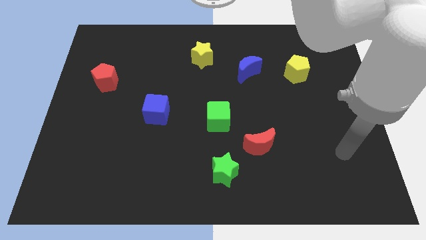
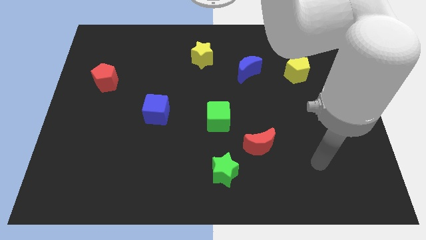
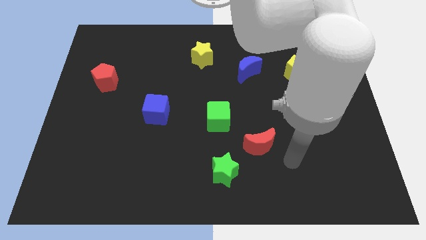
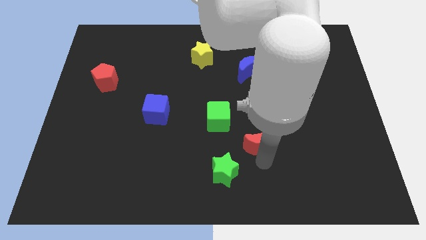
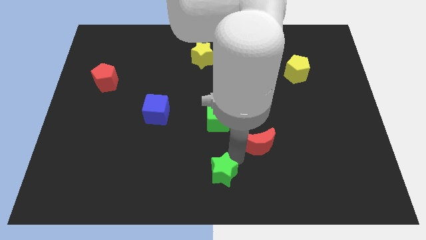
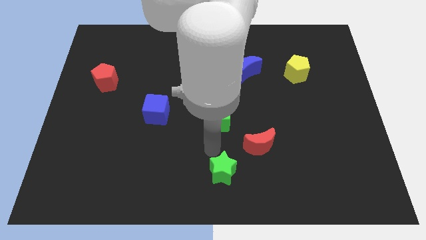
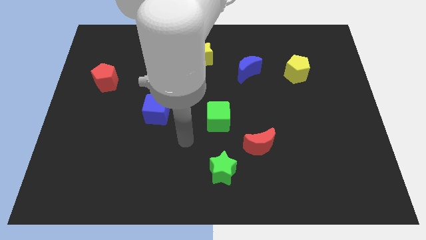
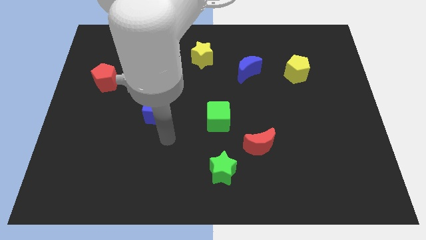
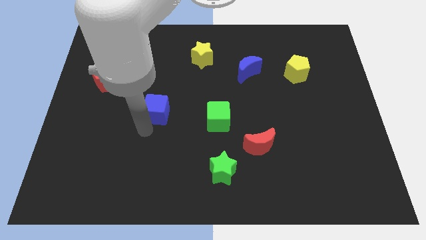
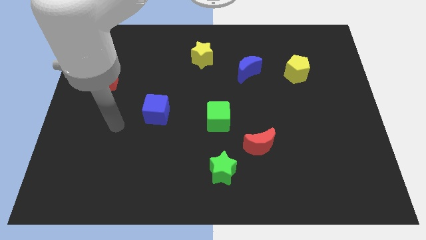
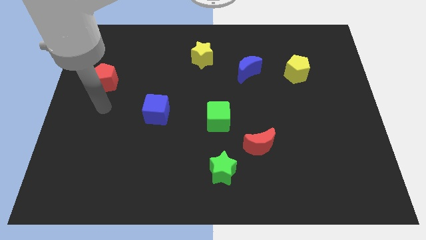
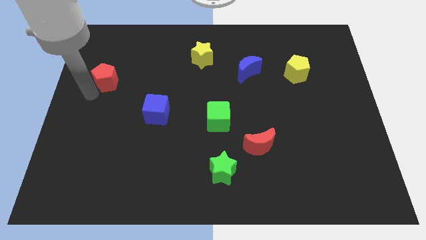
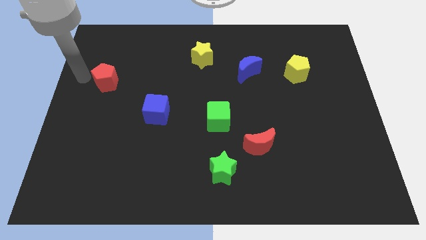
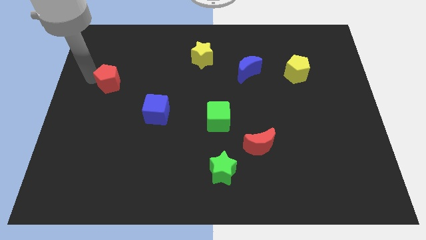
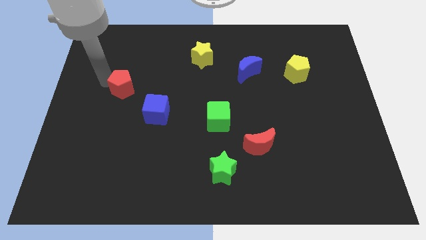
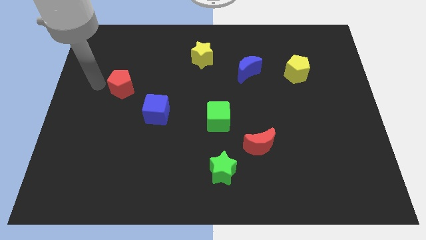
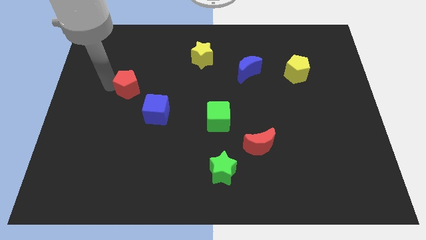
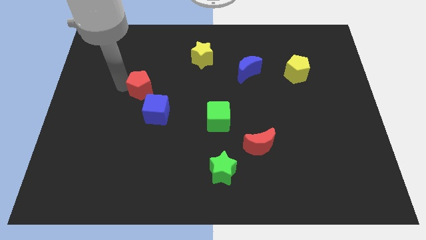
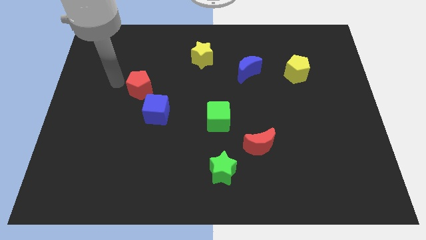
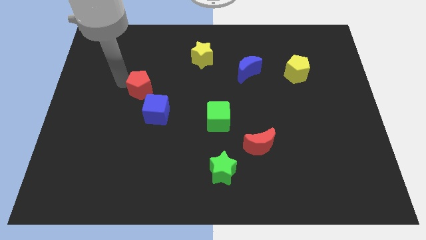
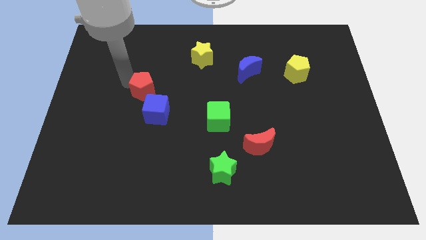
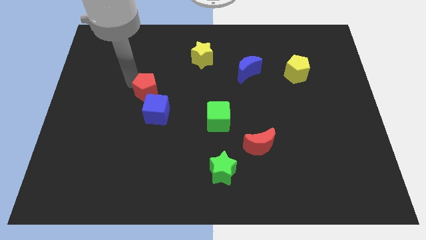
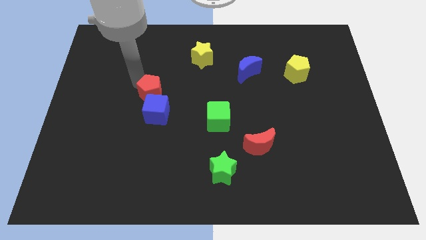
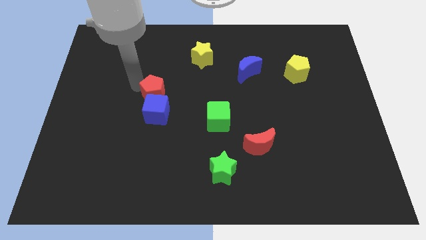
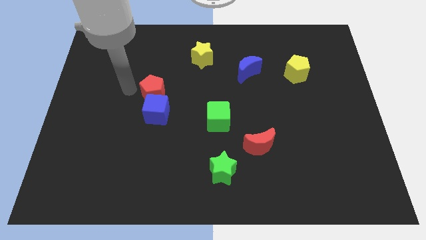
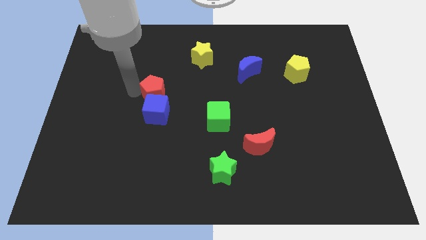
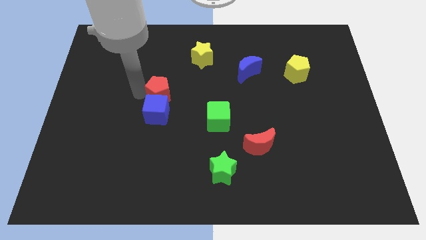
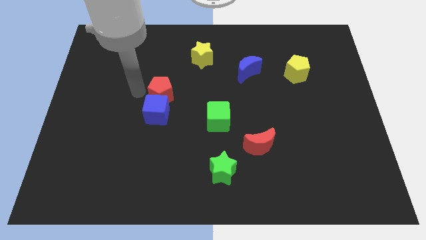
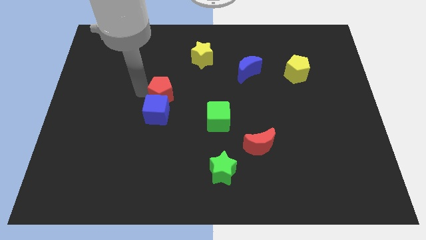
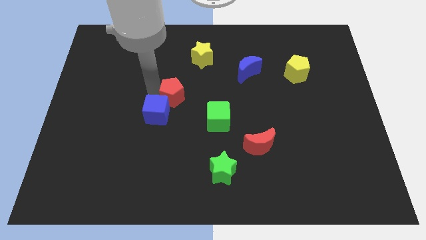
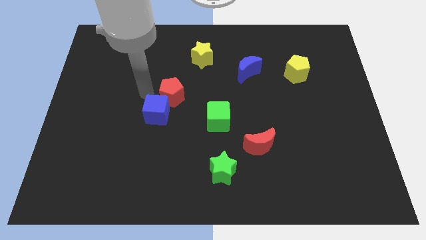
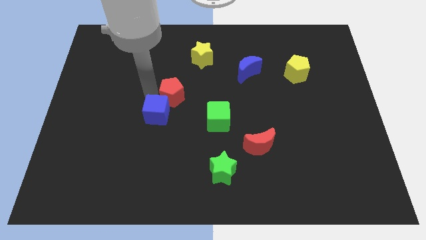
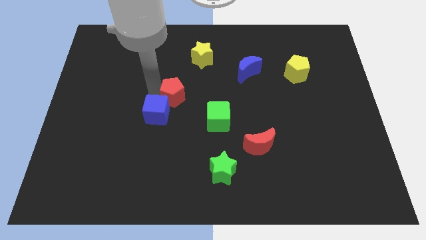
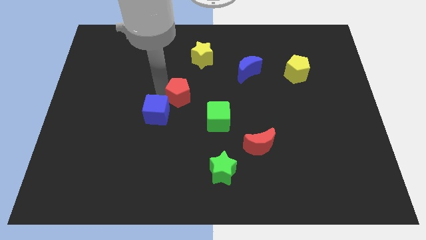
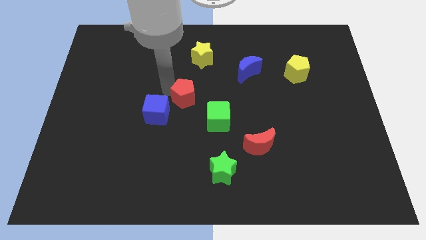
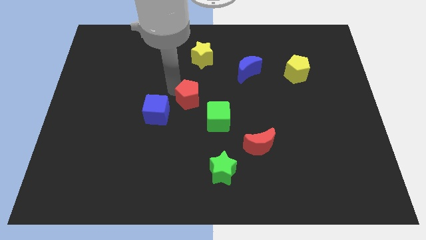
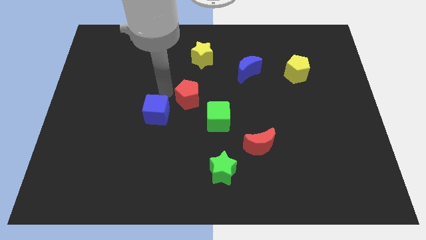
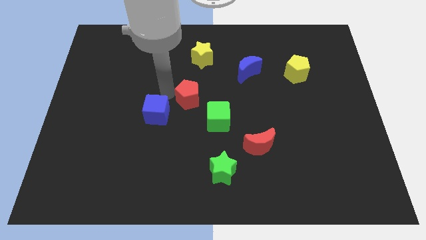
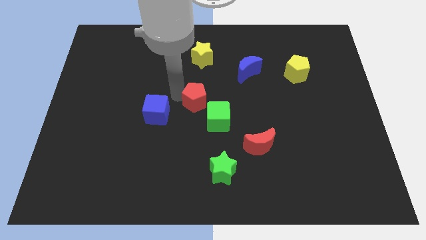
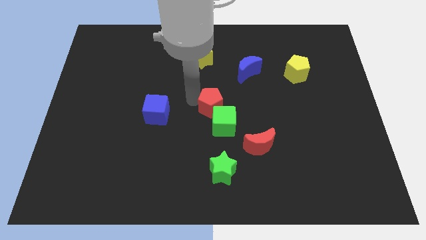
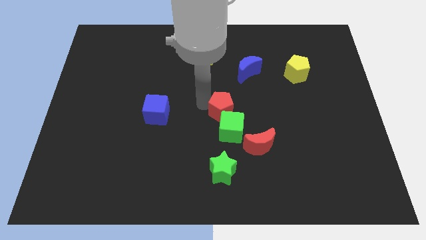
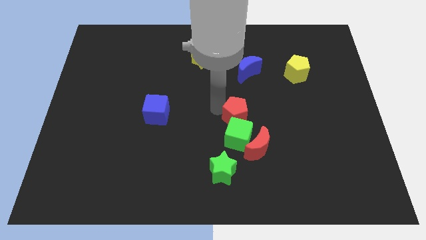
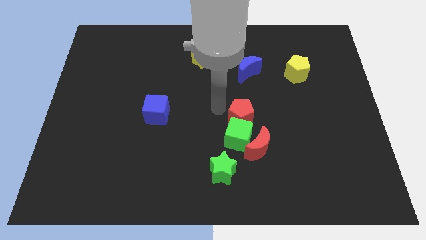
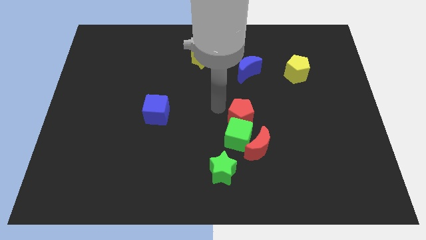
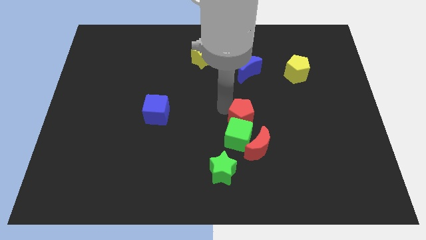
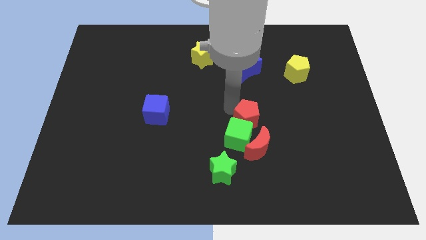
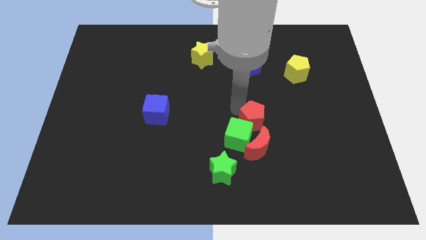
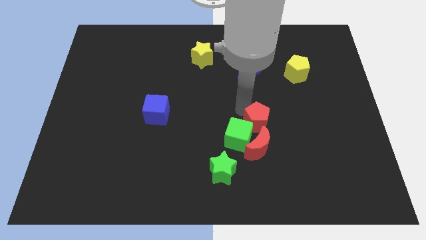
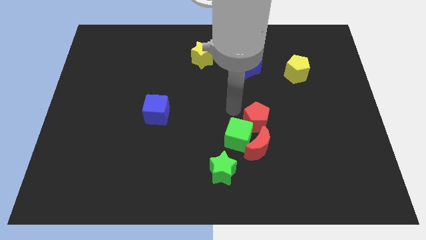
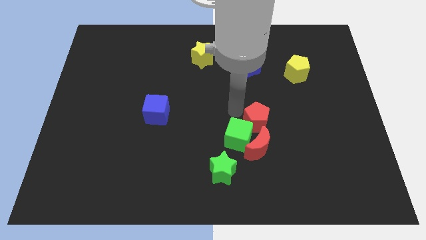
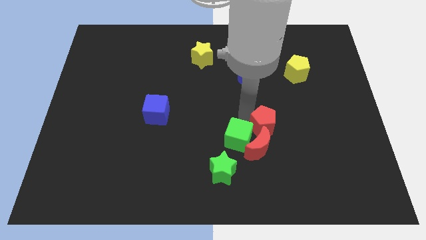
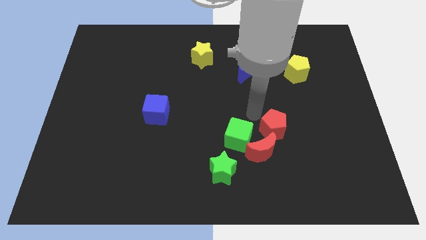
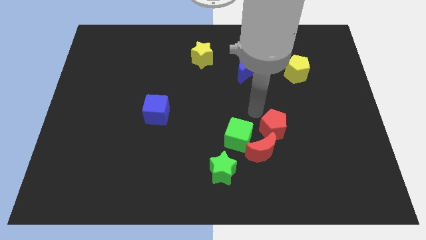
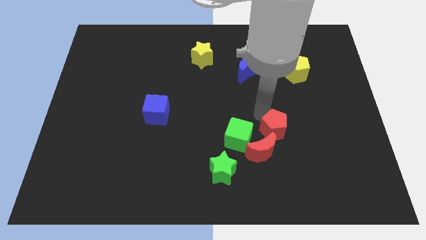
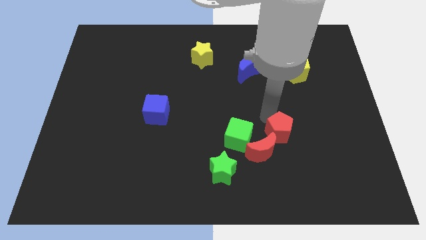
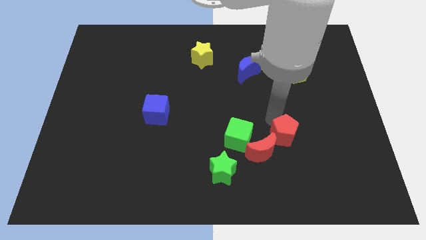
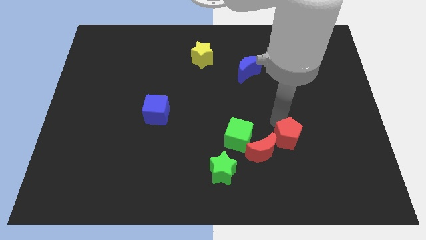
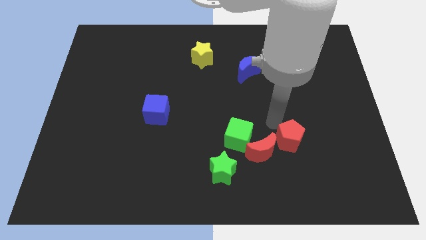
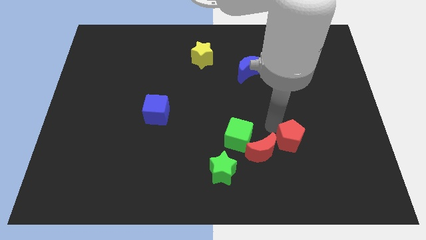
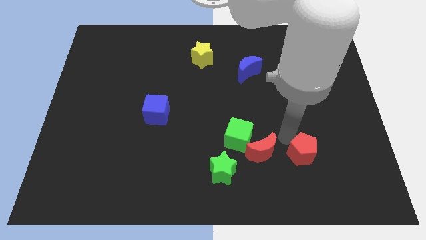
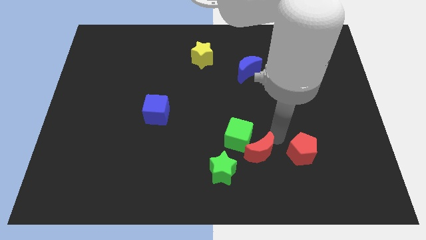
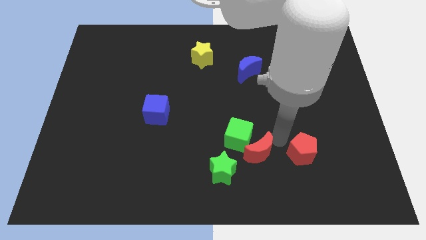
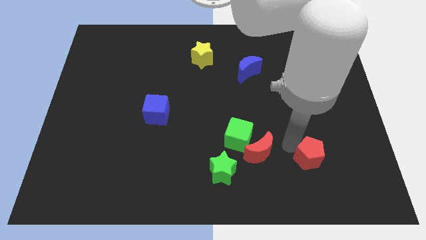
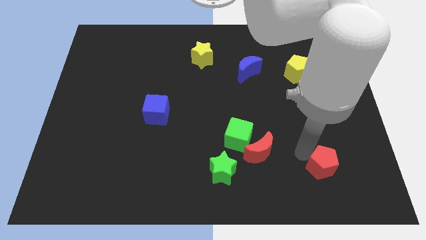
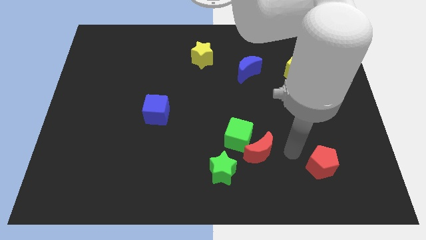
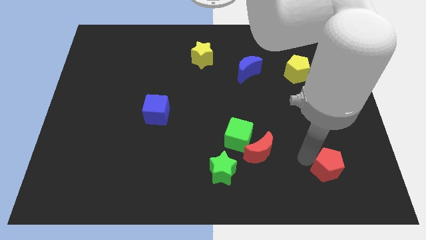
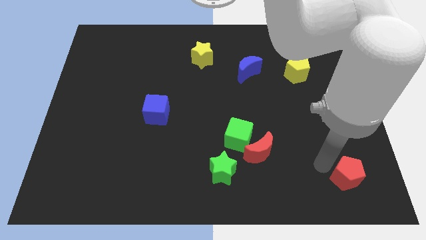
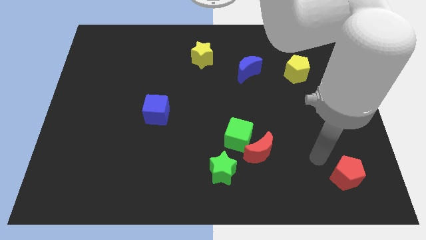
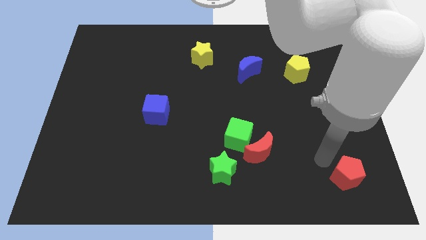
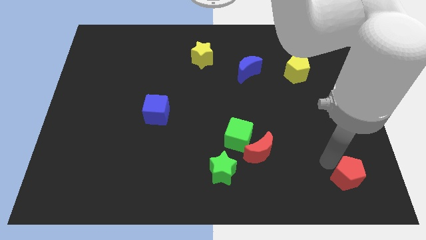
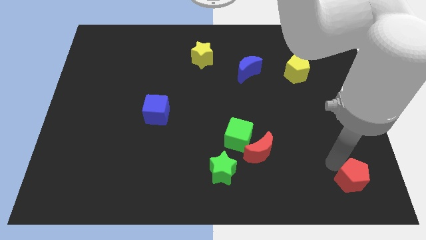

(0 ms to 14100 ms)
push the red pentagon to the bottom right
